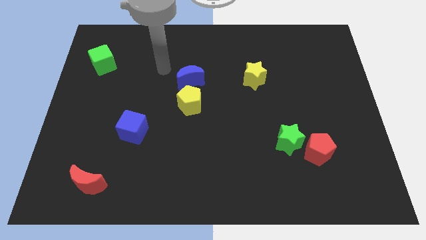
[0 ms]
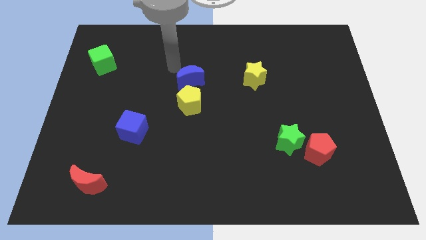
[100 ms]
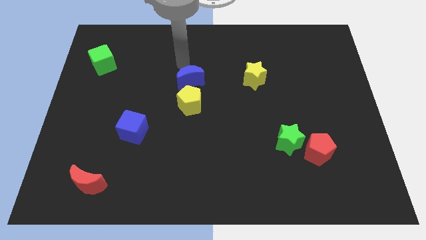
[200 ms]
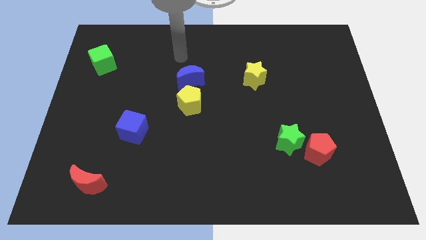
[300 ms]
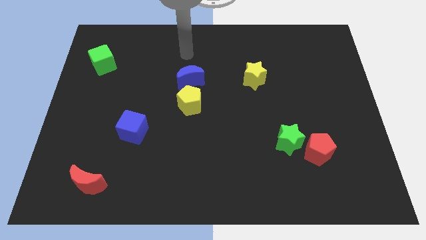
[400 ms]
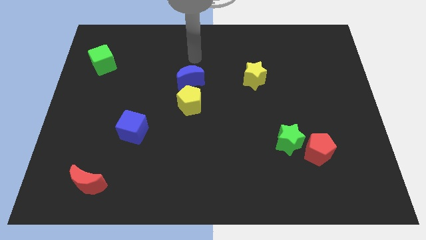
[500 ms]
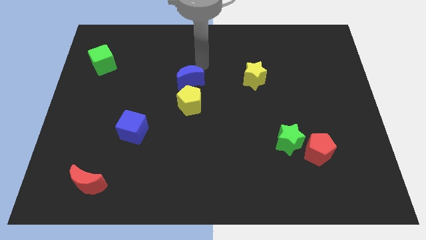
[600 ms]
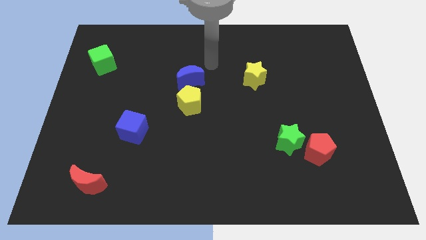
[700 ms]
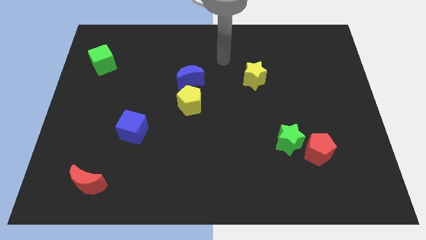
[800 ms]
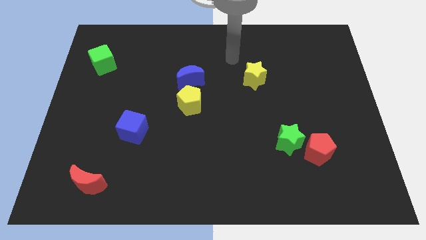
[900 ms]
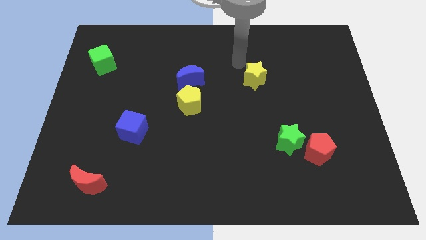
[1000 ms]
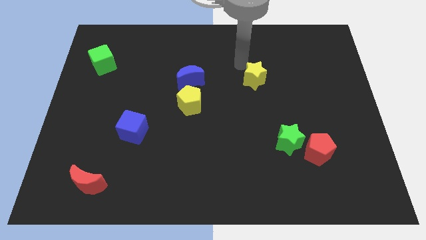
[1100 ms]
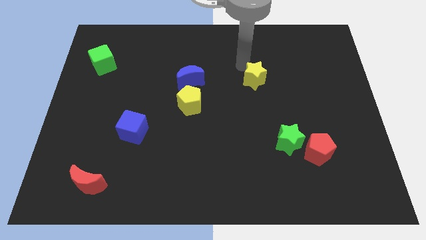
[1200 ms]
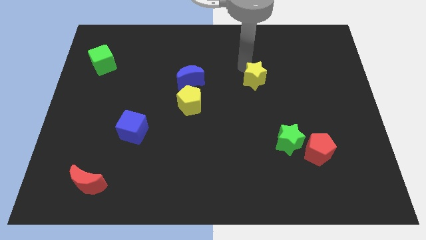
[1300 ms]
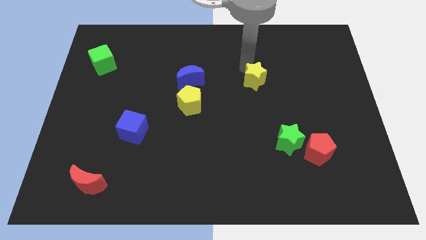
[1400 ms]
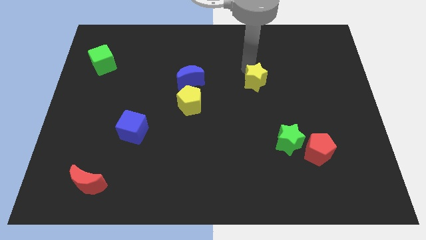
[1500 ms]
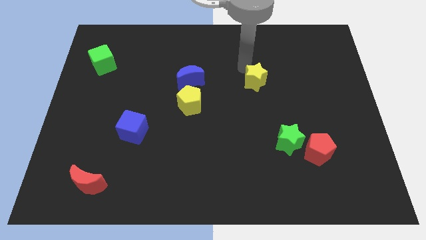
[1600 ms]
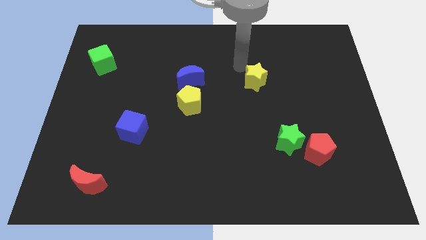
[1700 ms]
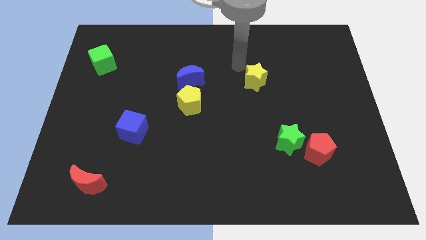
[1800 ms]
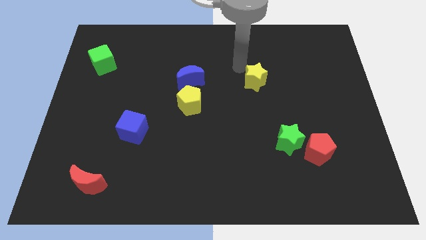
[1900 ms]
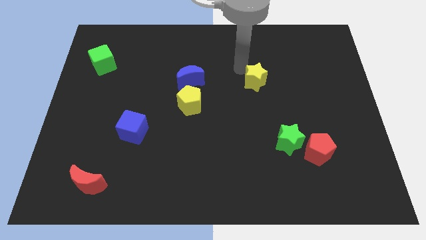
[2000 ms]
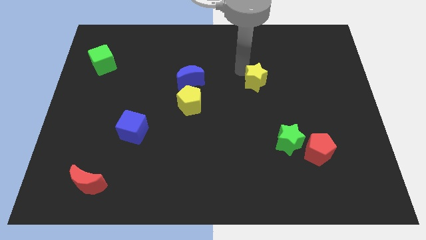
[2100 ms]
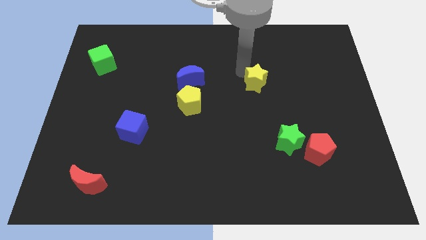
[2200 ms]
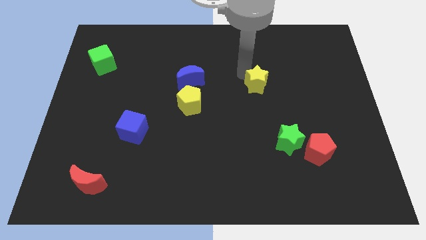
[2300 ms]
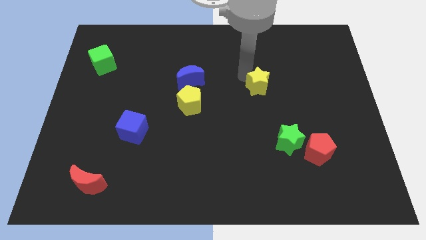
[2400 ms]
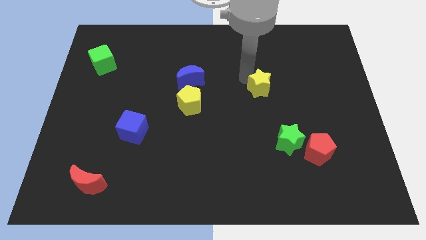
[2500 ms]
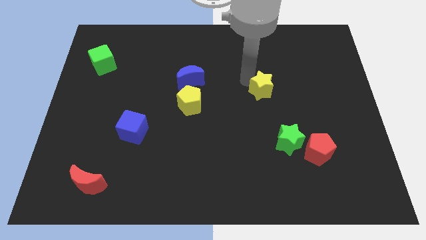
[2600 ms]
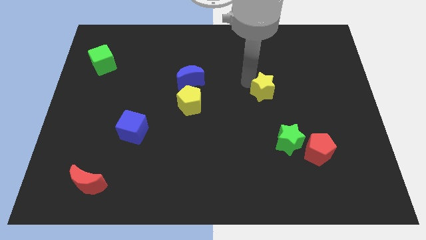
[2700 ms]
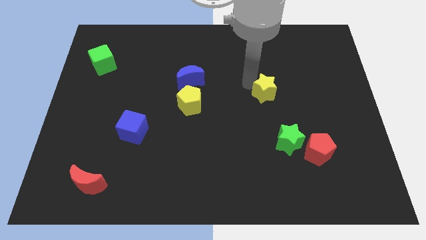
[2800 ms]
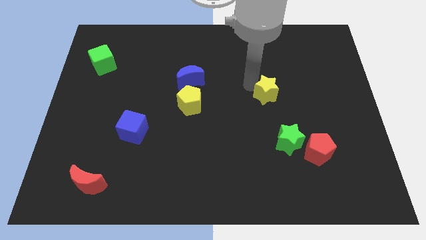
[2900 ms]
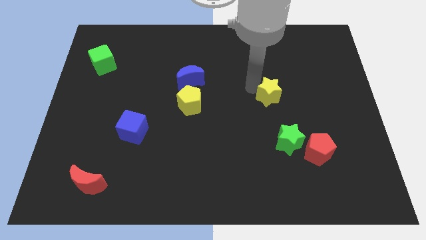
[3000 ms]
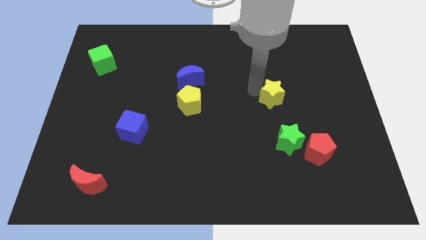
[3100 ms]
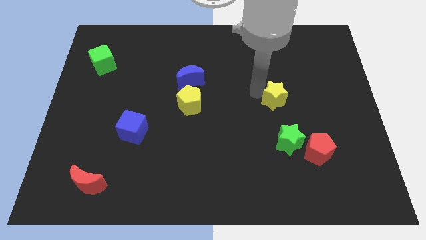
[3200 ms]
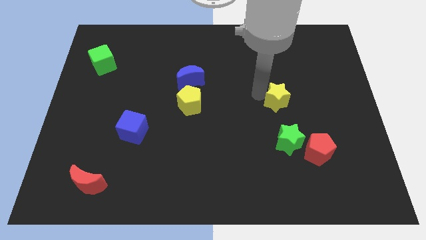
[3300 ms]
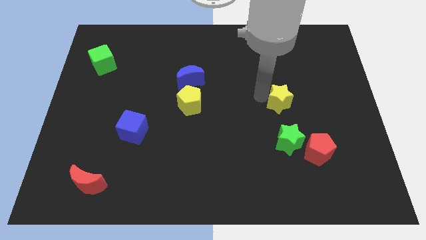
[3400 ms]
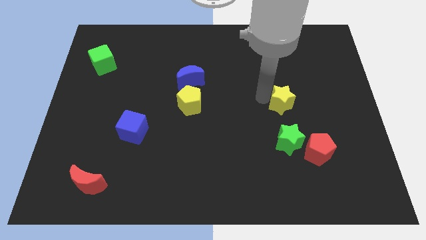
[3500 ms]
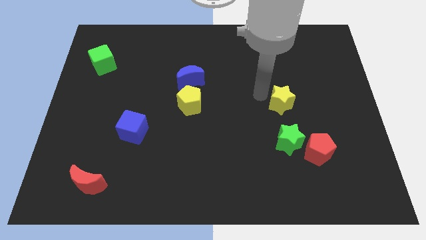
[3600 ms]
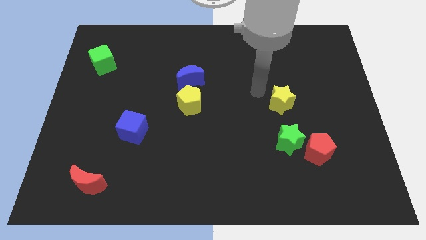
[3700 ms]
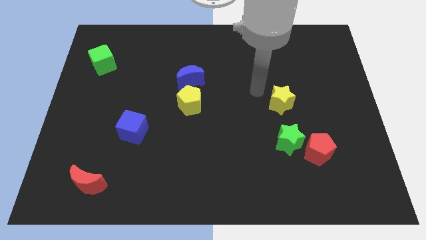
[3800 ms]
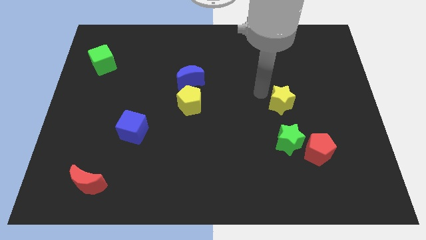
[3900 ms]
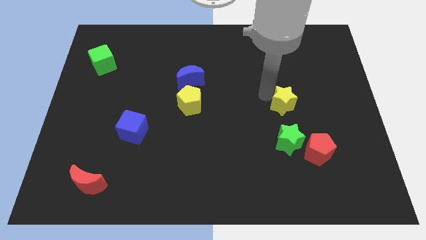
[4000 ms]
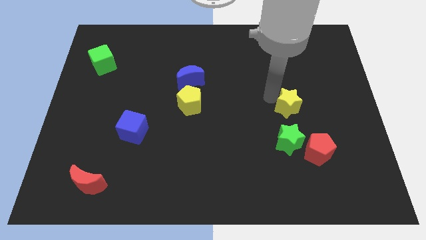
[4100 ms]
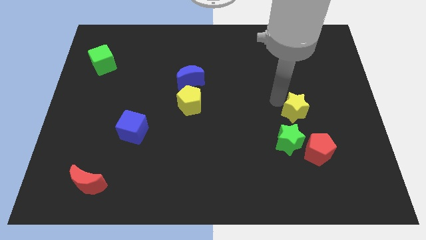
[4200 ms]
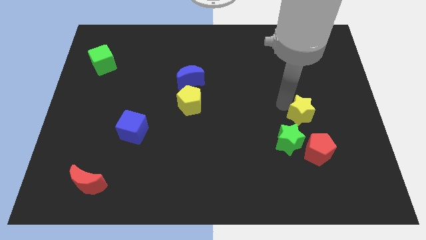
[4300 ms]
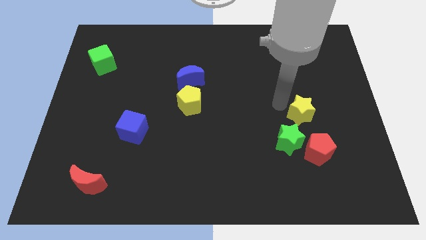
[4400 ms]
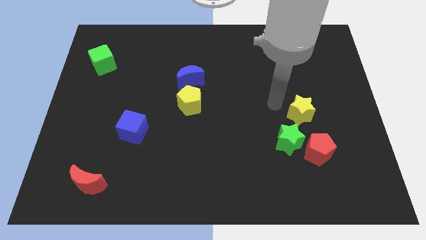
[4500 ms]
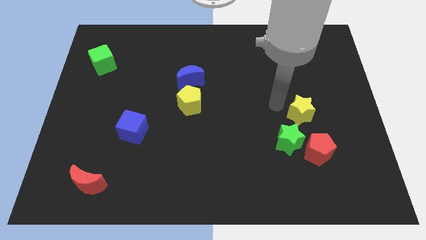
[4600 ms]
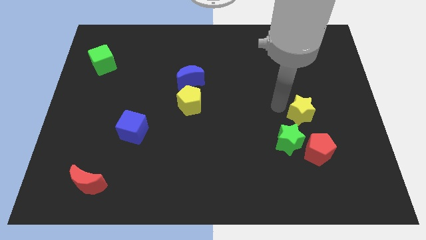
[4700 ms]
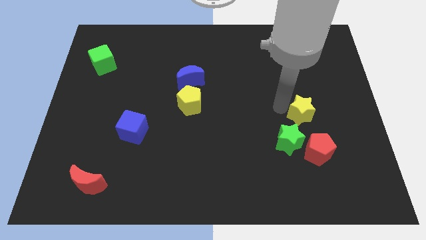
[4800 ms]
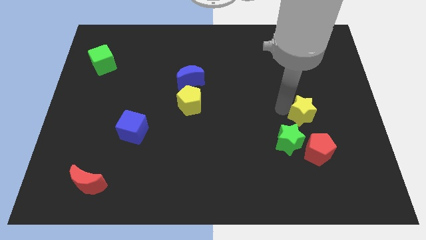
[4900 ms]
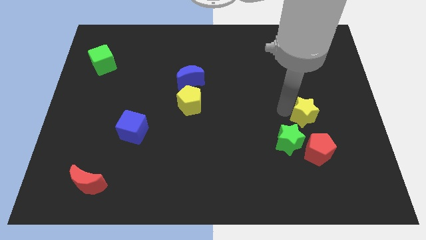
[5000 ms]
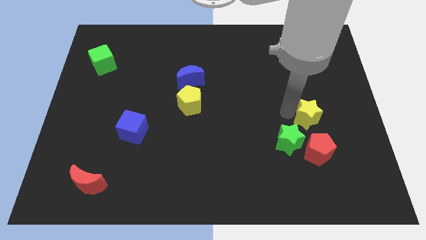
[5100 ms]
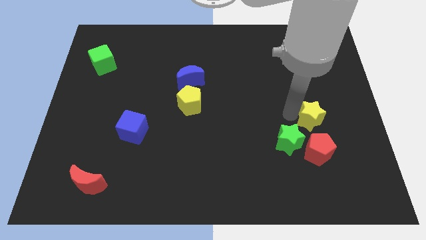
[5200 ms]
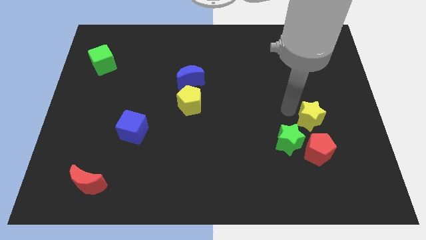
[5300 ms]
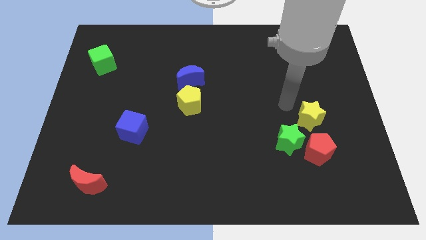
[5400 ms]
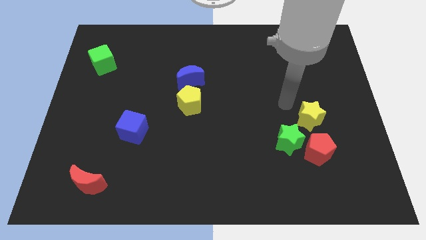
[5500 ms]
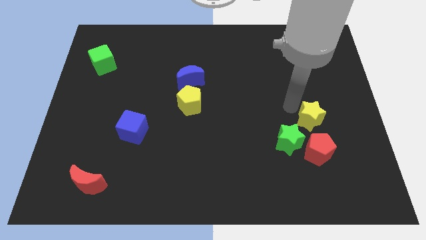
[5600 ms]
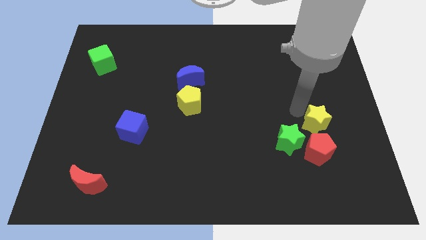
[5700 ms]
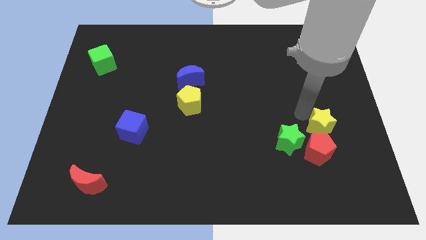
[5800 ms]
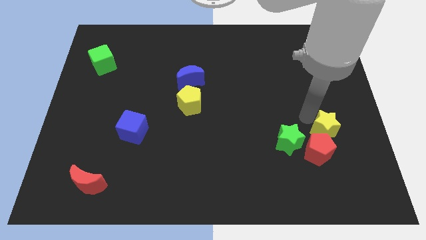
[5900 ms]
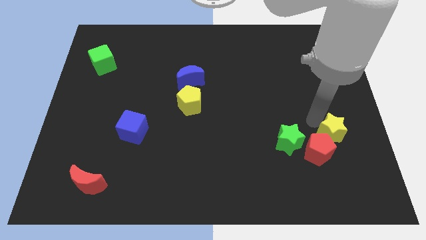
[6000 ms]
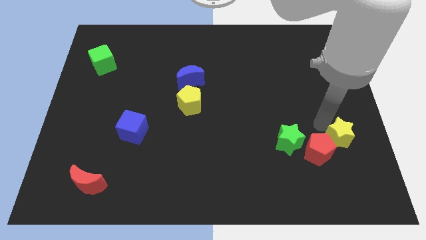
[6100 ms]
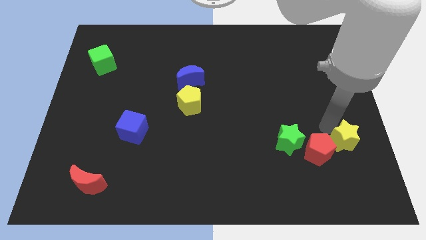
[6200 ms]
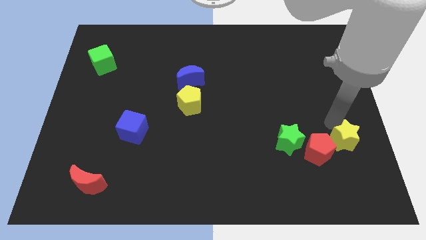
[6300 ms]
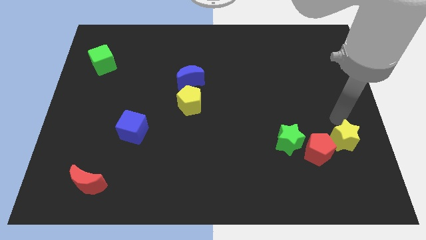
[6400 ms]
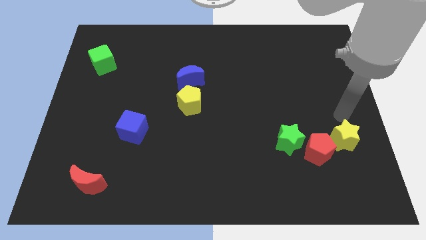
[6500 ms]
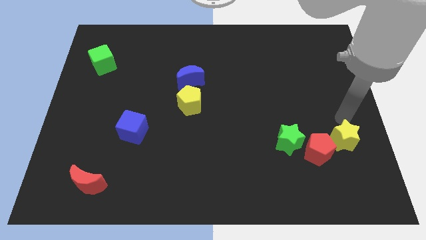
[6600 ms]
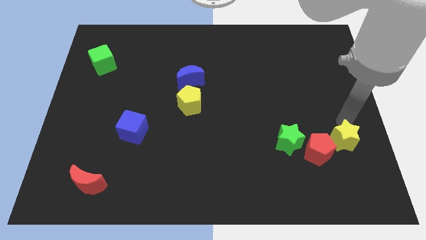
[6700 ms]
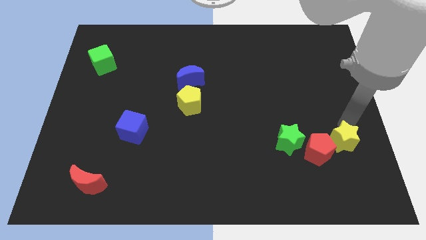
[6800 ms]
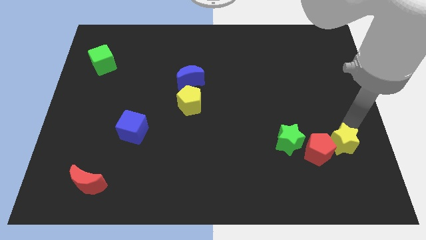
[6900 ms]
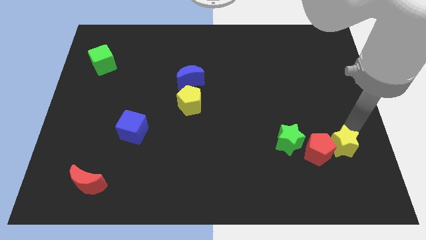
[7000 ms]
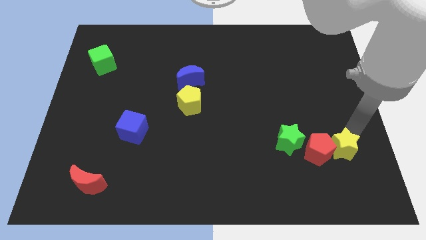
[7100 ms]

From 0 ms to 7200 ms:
move the yellow star to the bottom right side of the red pentagon
